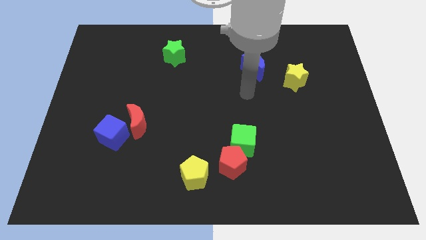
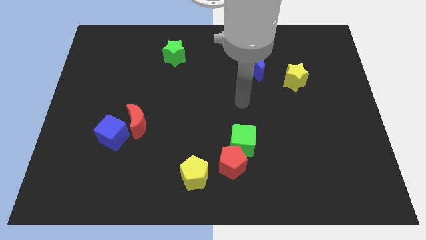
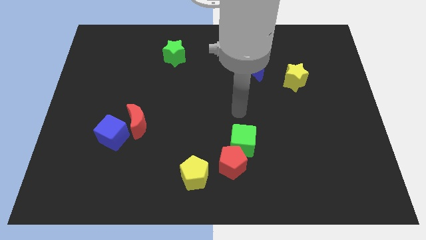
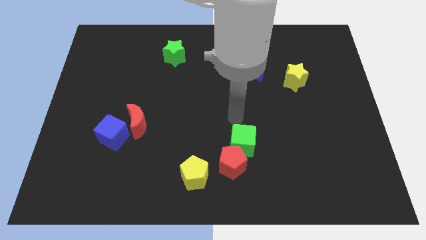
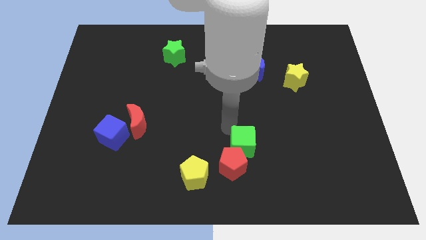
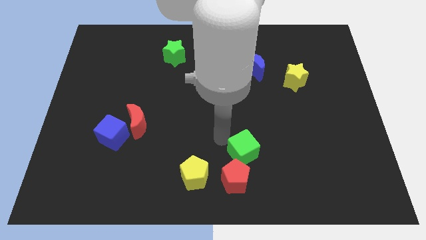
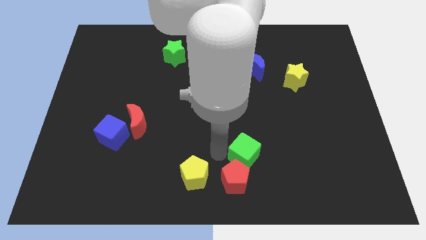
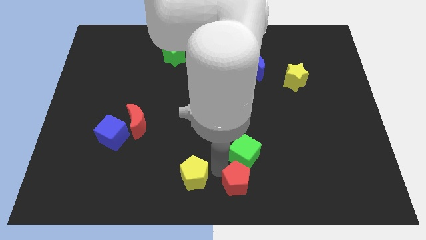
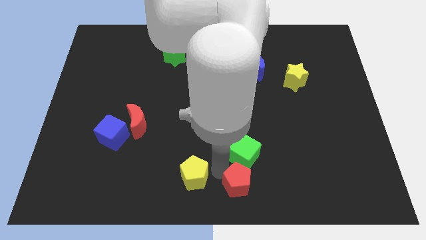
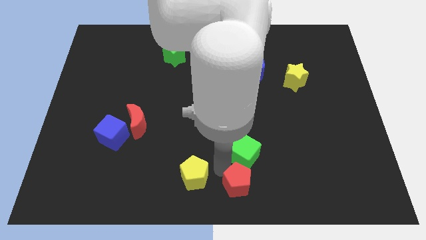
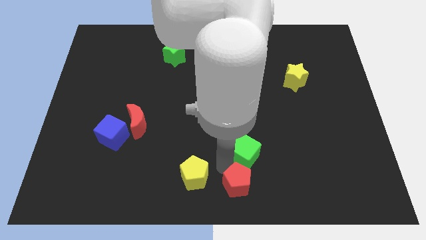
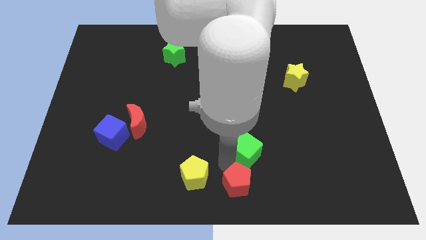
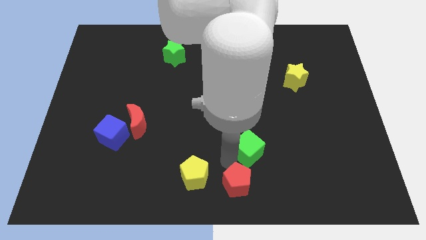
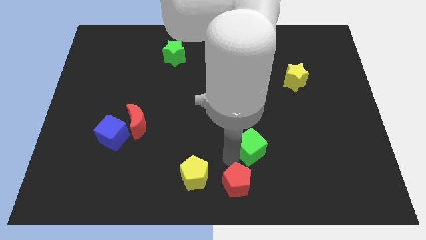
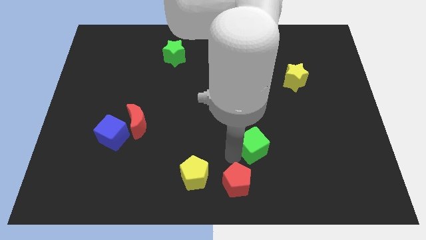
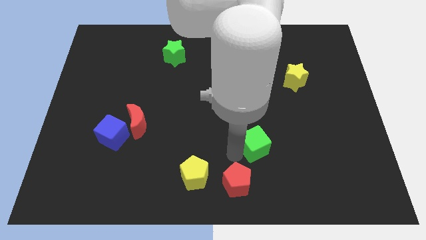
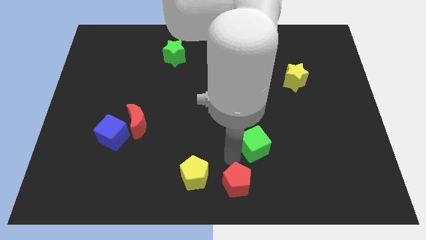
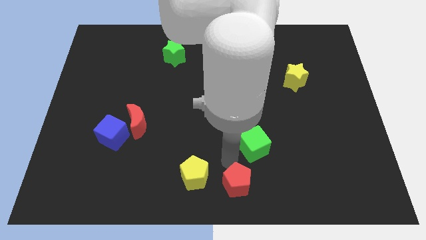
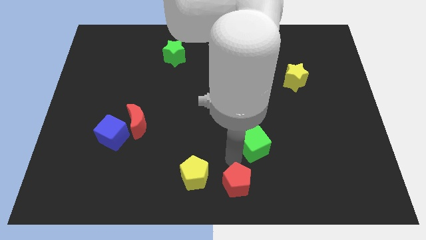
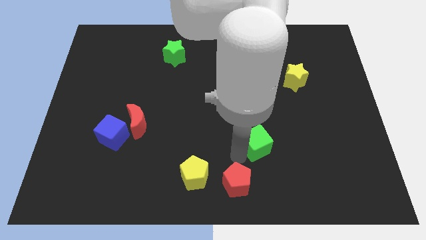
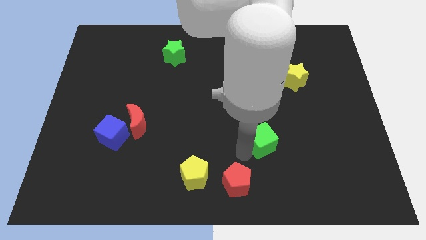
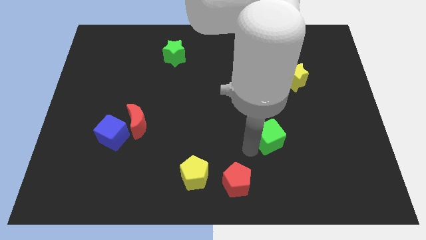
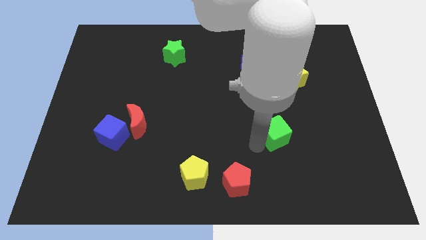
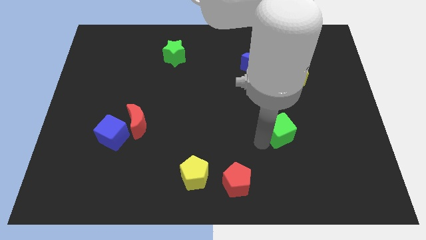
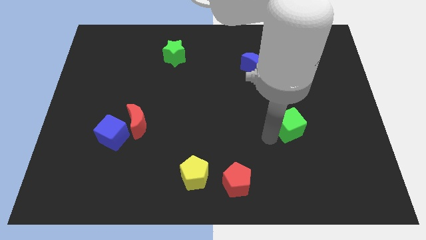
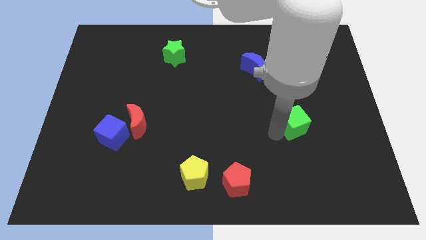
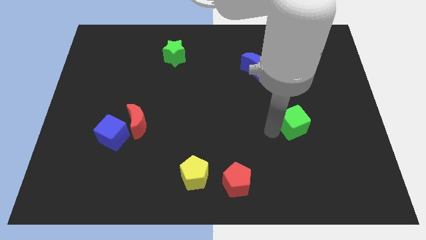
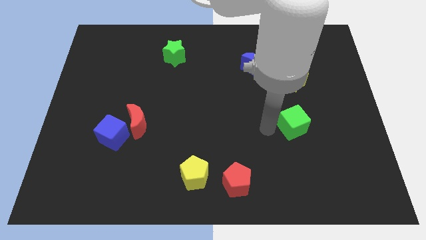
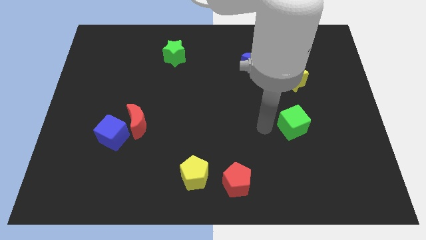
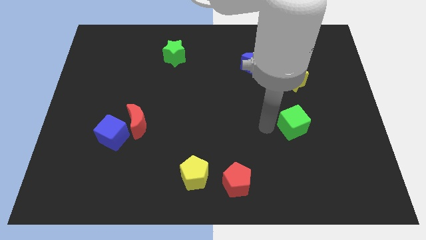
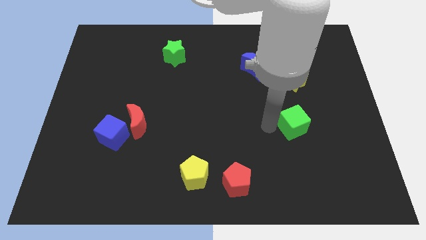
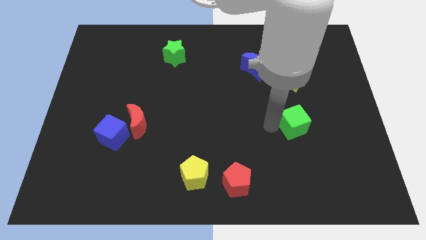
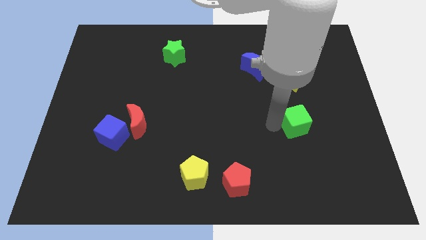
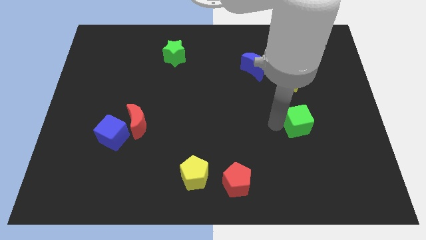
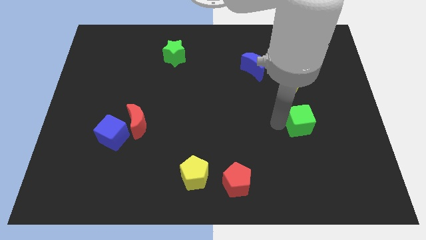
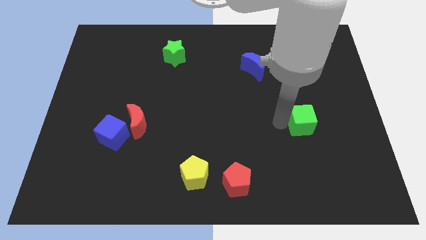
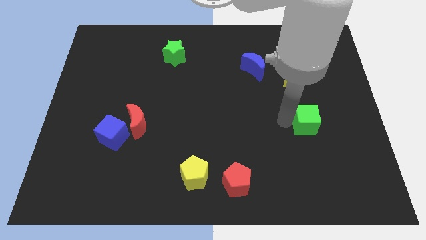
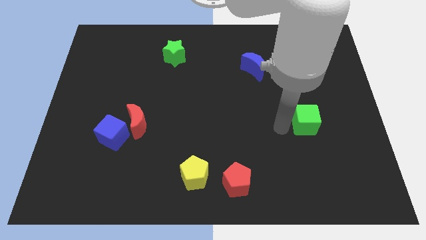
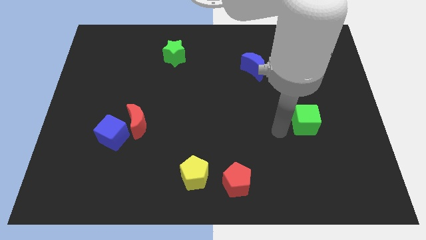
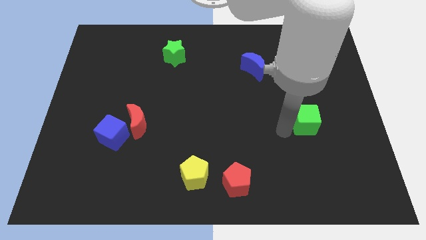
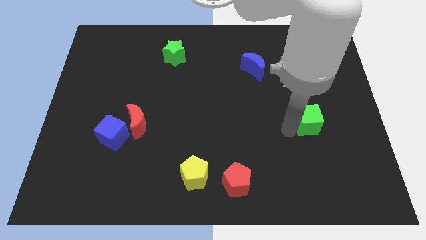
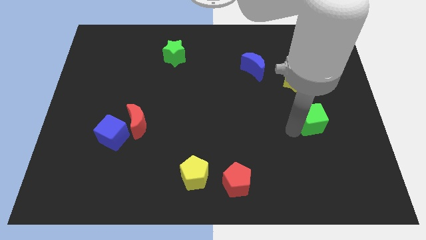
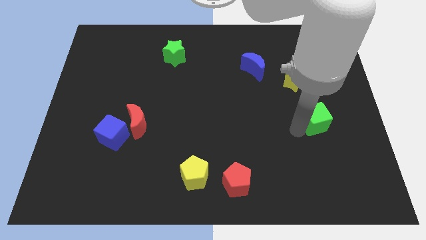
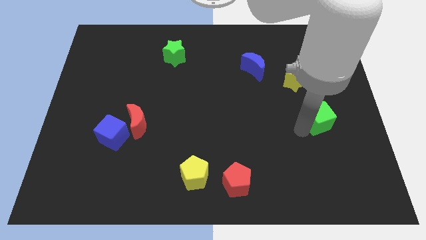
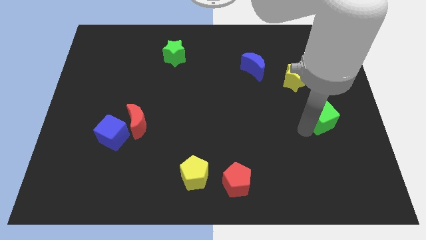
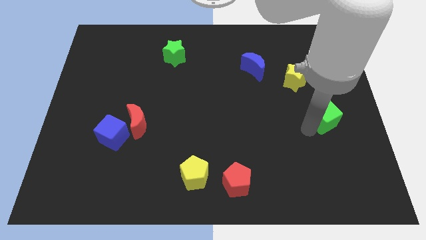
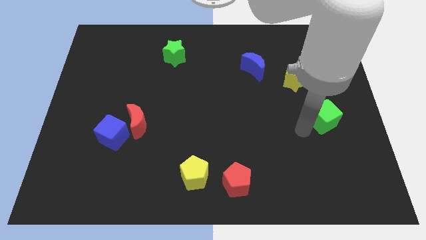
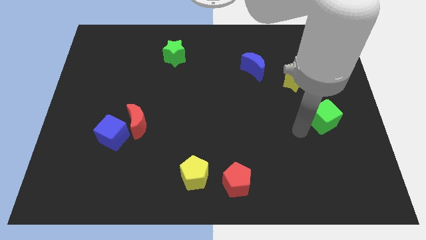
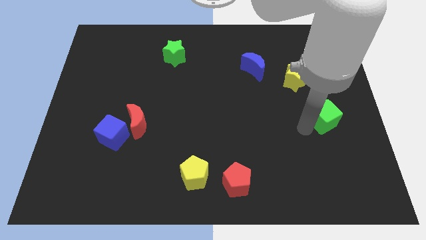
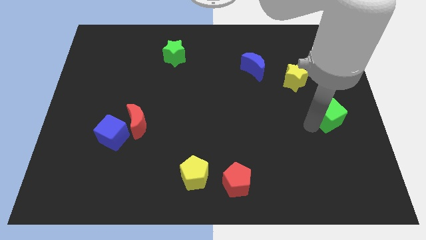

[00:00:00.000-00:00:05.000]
put the green cube to the right side

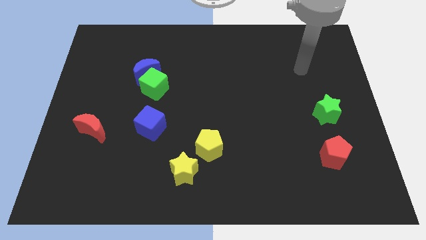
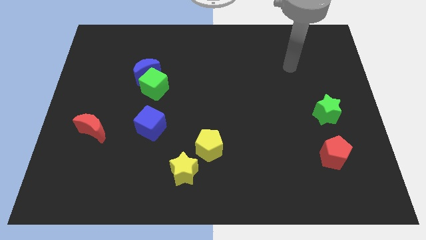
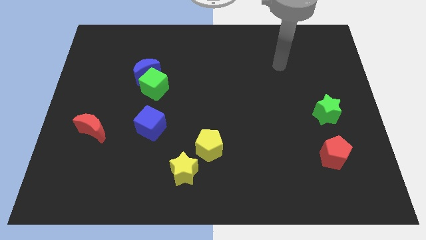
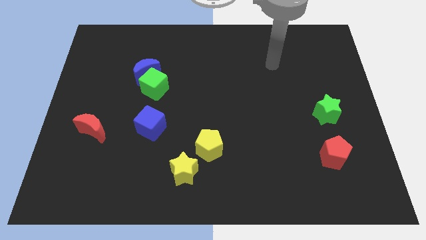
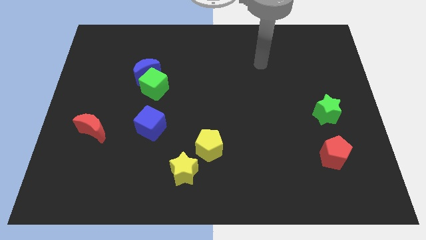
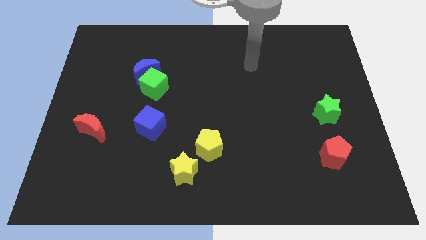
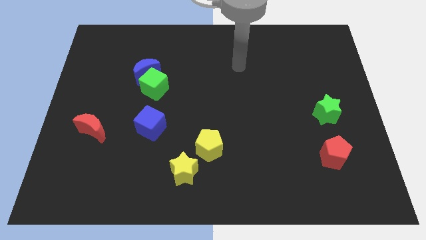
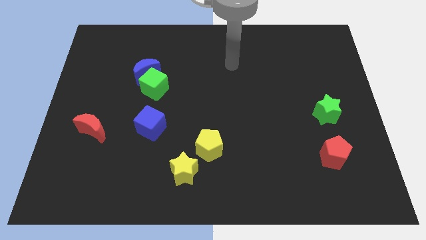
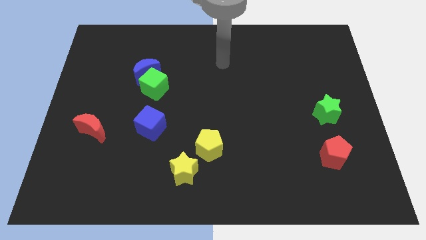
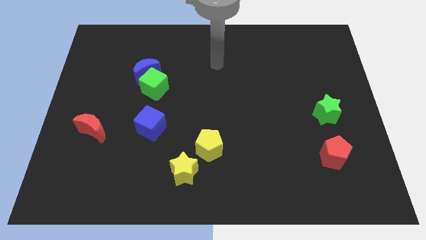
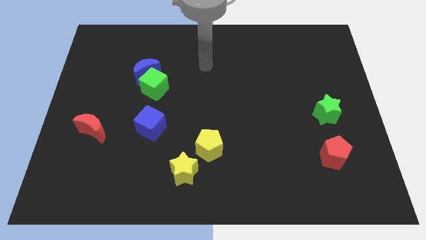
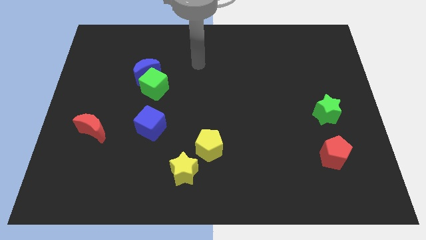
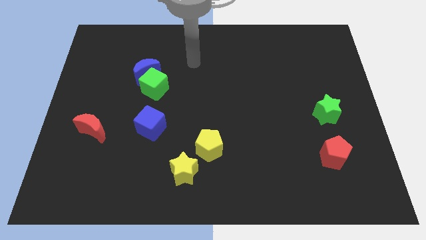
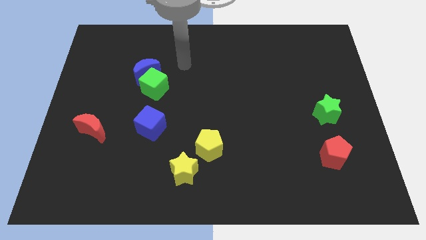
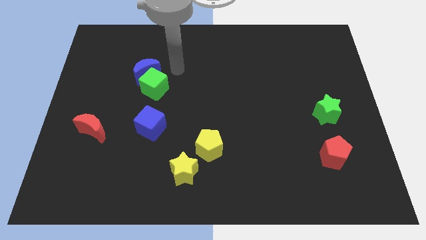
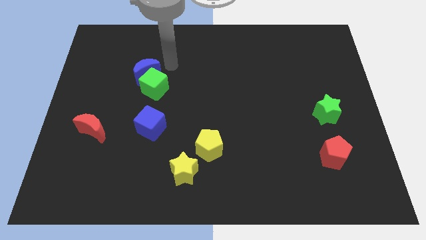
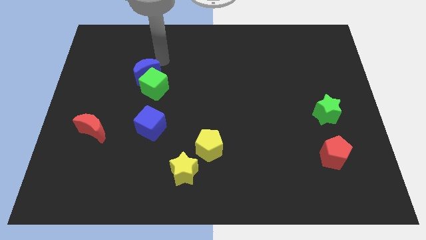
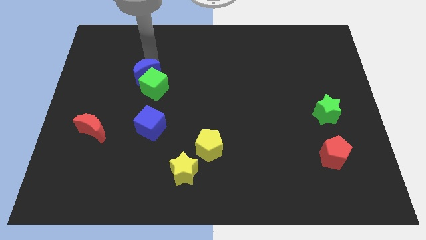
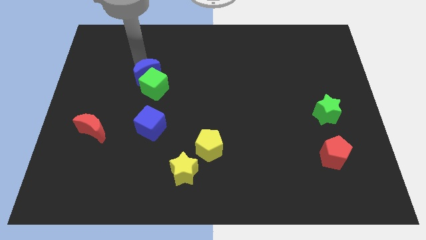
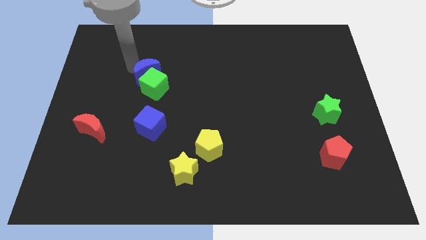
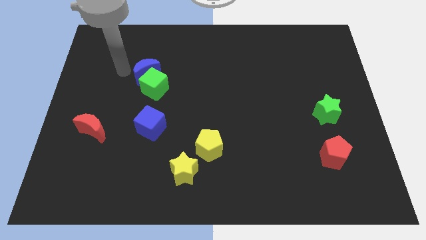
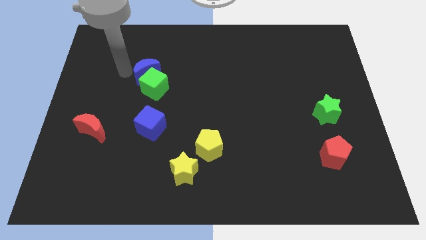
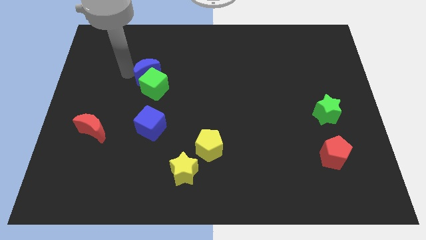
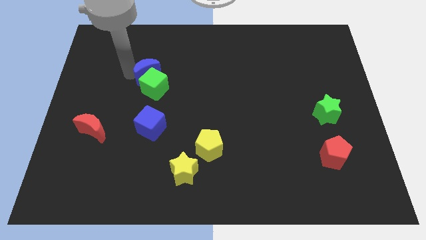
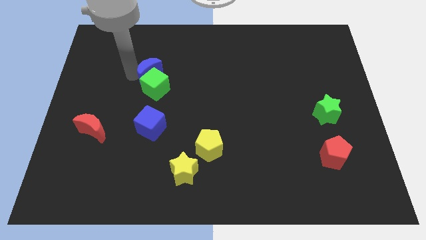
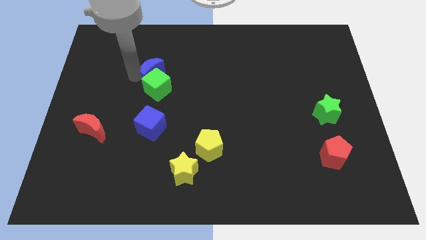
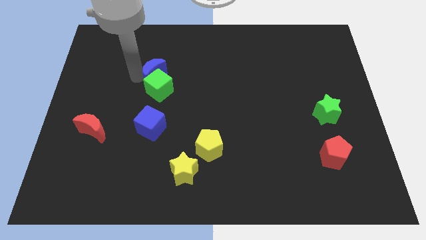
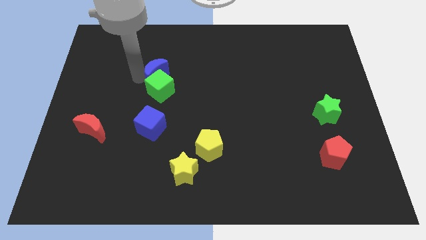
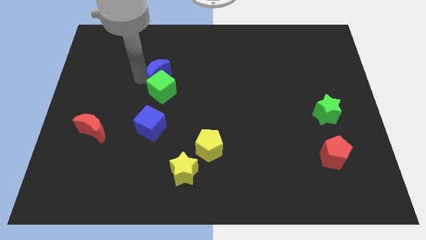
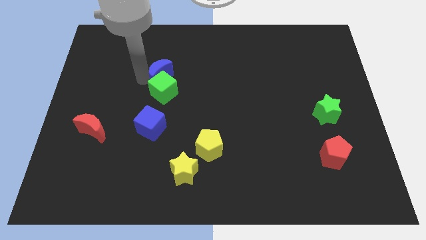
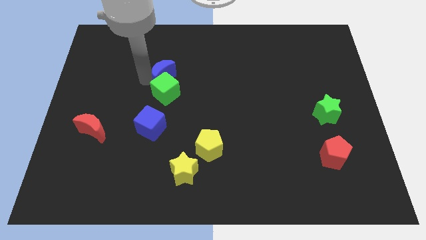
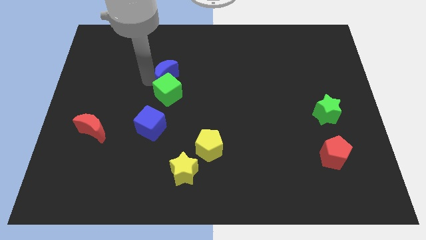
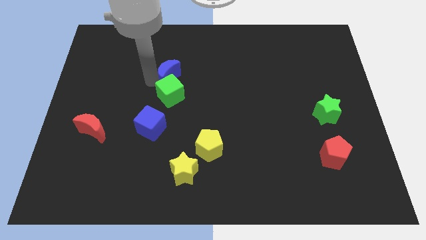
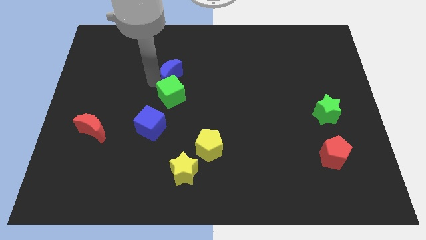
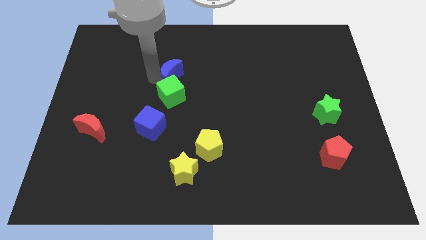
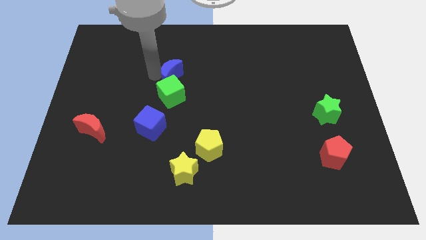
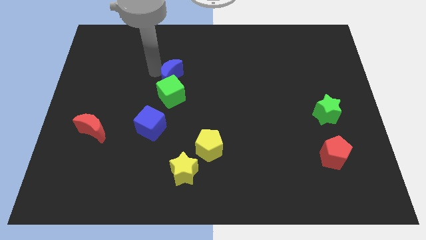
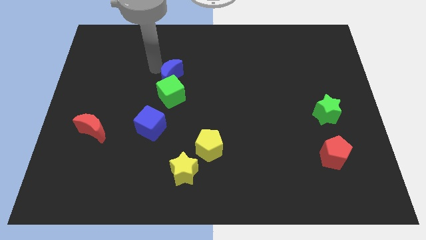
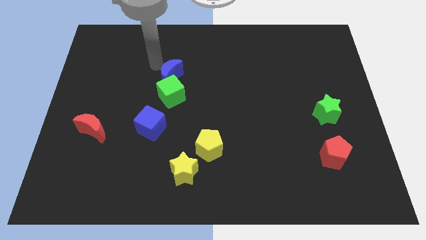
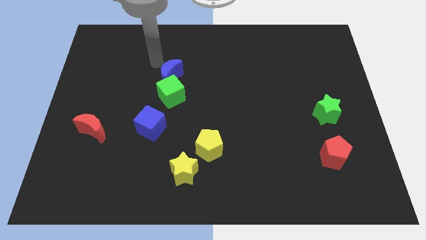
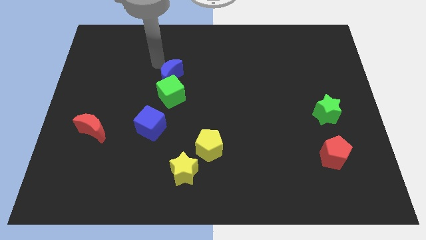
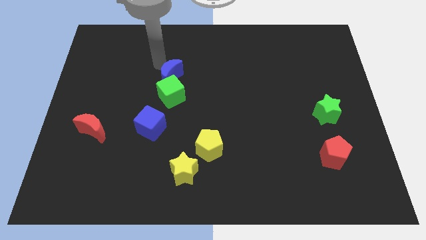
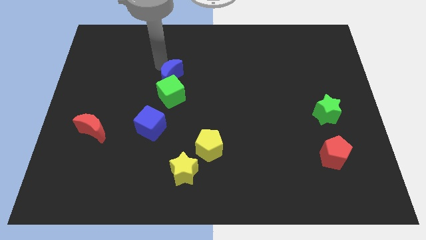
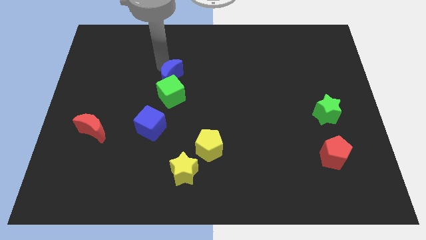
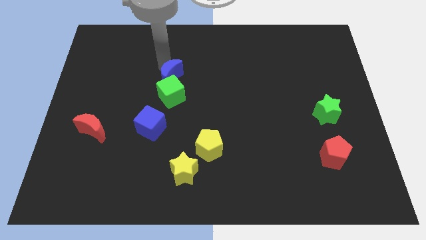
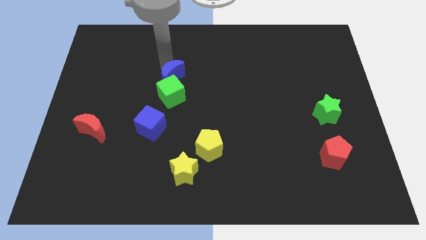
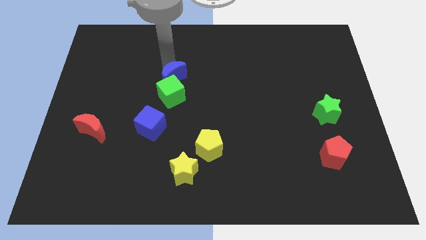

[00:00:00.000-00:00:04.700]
slide the blue moon to the middle
